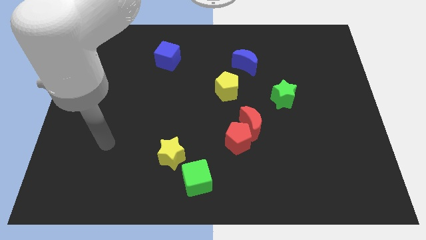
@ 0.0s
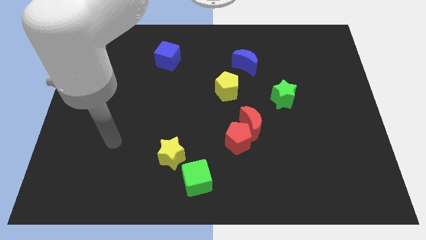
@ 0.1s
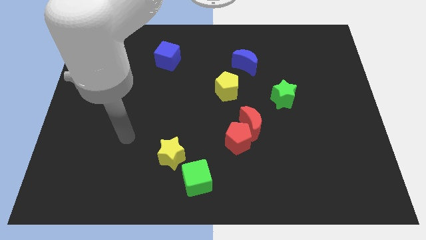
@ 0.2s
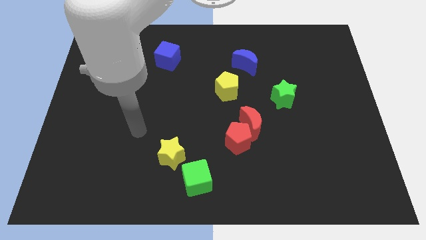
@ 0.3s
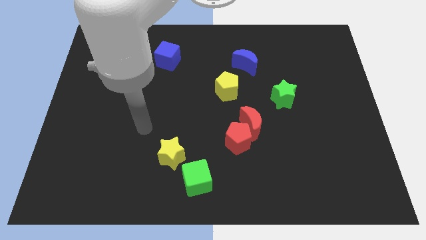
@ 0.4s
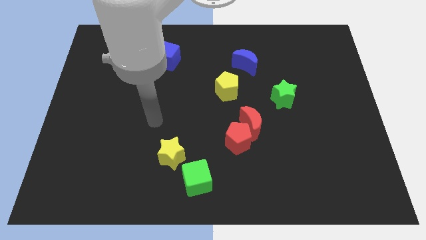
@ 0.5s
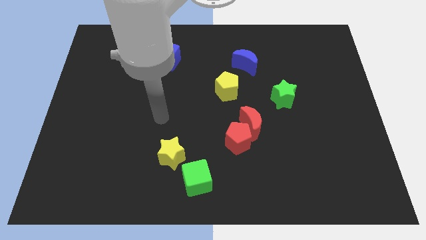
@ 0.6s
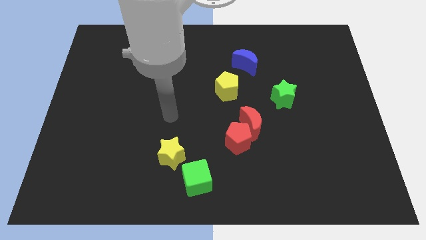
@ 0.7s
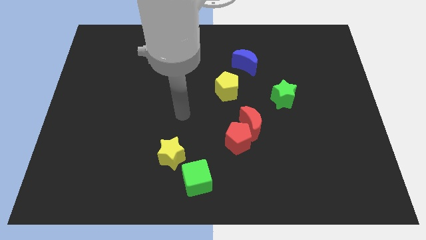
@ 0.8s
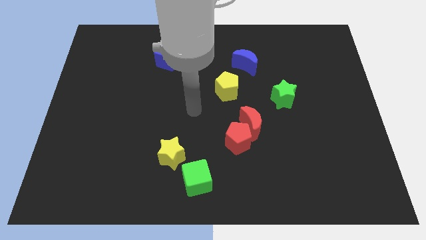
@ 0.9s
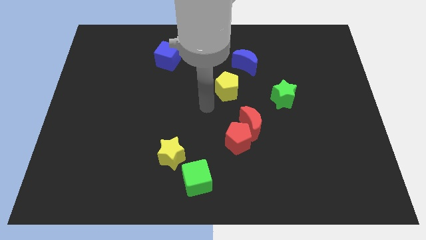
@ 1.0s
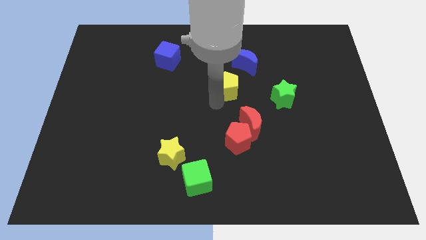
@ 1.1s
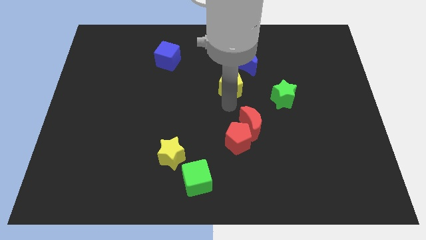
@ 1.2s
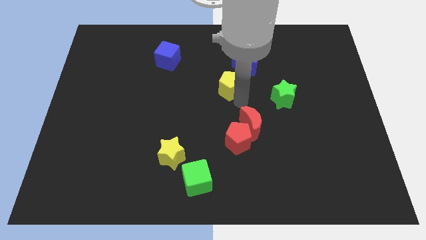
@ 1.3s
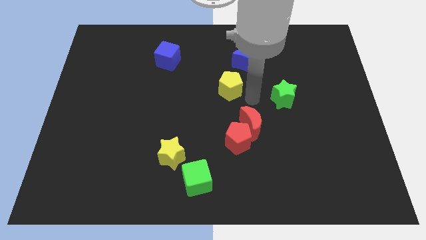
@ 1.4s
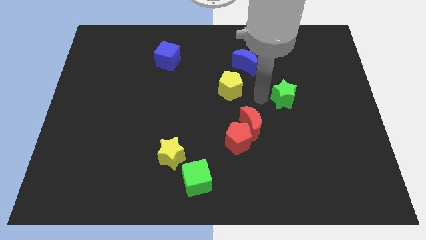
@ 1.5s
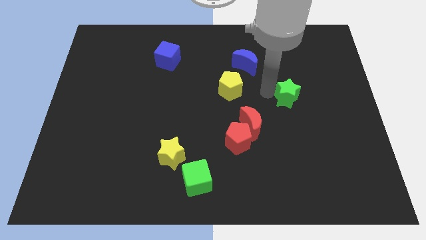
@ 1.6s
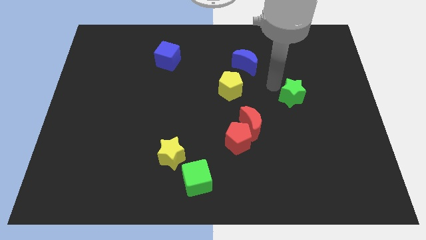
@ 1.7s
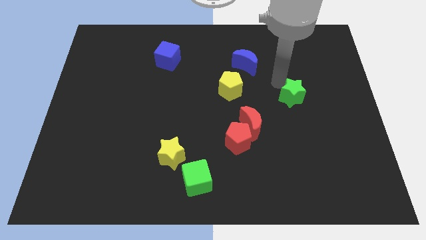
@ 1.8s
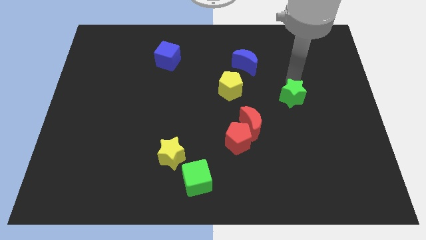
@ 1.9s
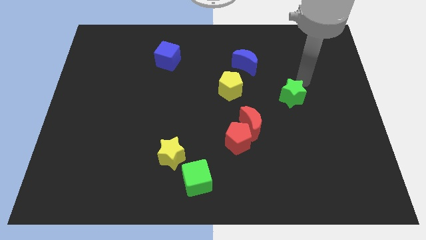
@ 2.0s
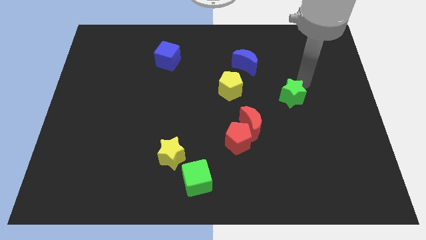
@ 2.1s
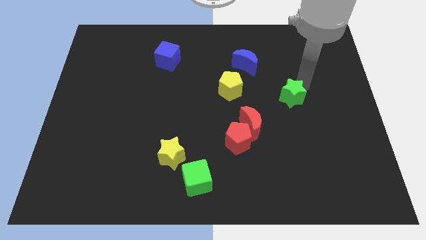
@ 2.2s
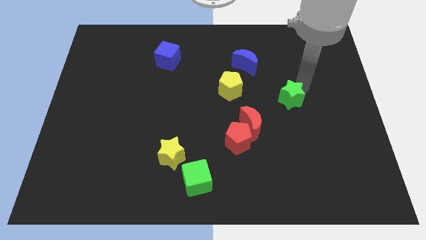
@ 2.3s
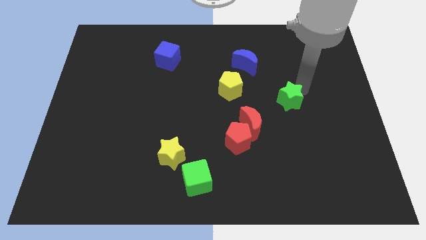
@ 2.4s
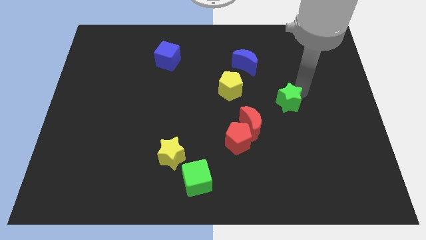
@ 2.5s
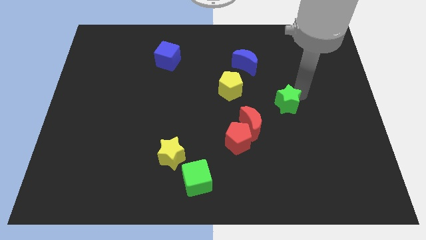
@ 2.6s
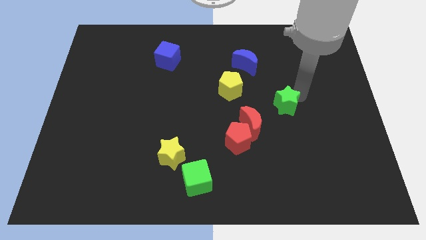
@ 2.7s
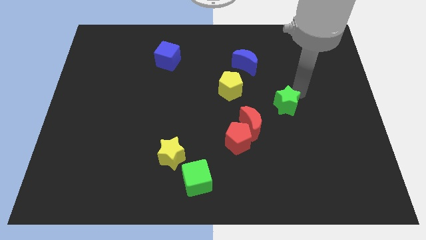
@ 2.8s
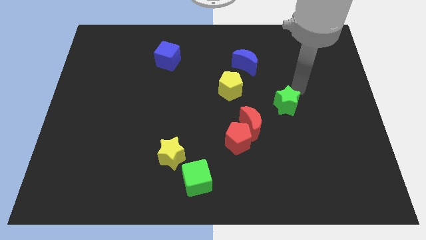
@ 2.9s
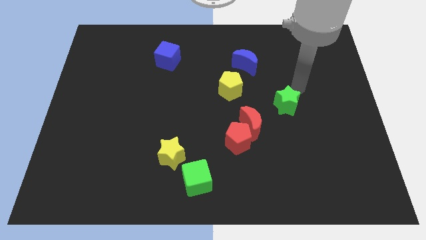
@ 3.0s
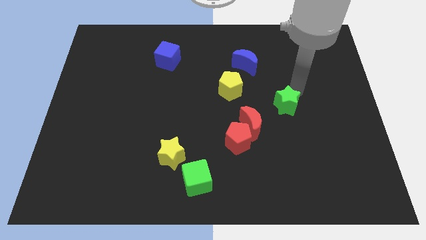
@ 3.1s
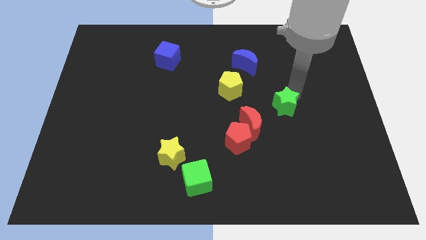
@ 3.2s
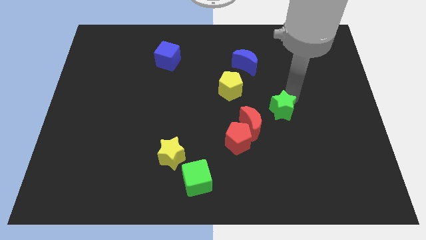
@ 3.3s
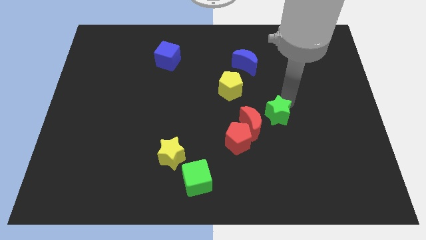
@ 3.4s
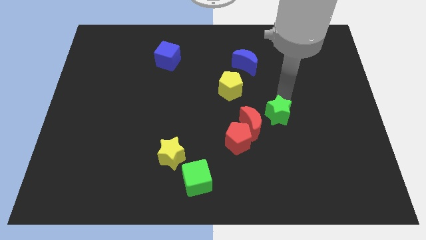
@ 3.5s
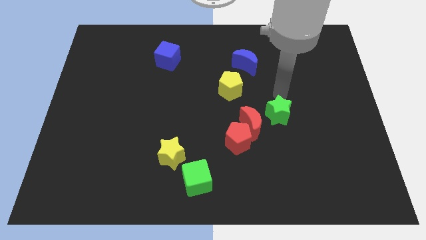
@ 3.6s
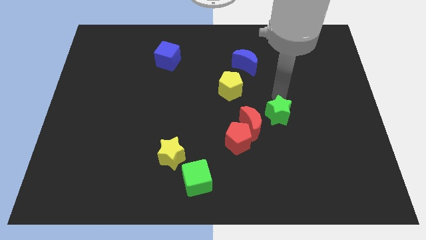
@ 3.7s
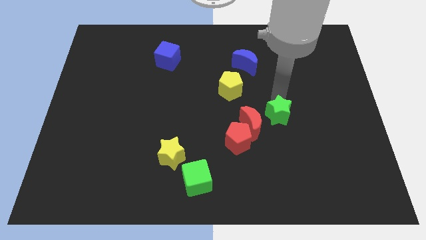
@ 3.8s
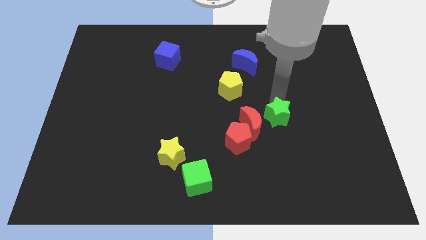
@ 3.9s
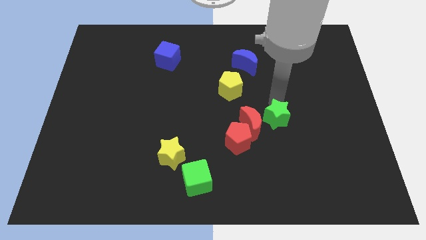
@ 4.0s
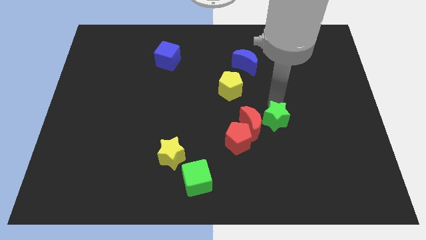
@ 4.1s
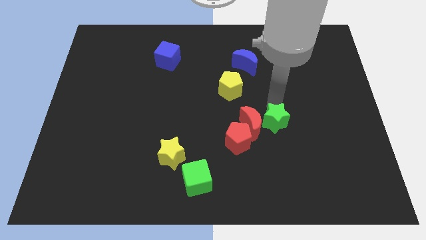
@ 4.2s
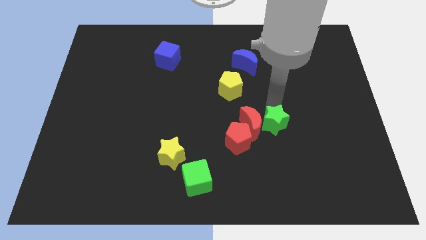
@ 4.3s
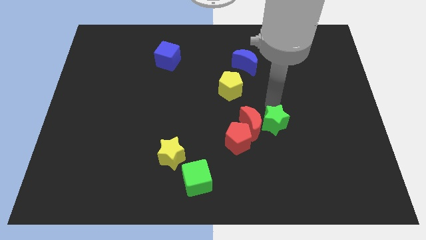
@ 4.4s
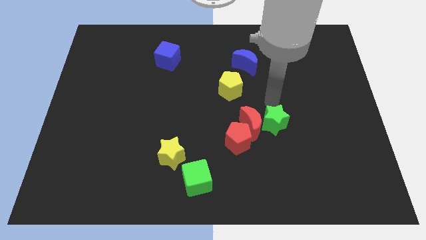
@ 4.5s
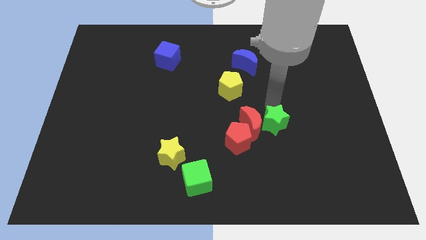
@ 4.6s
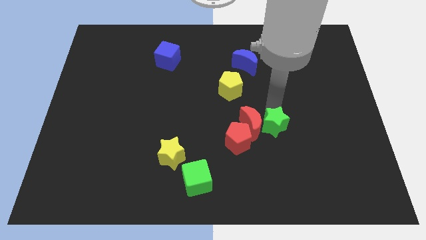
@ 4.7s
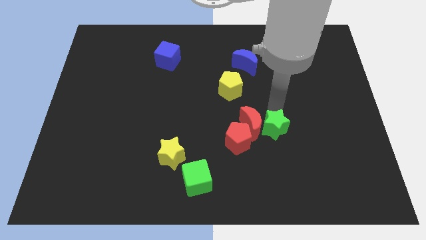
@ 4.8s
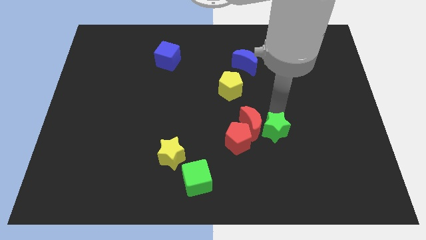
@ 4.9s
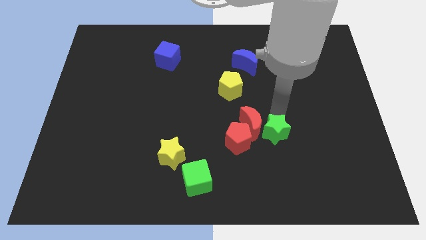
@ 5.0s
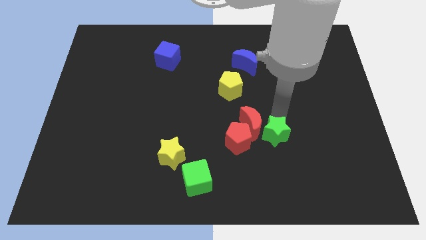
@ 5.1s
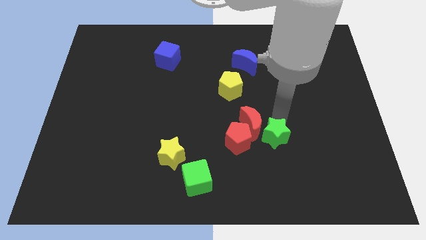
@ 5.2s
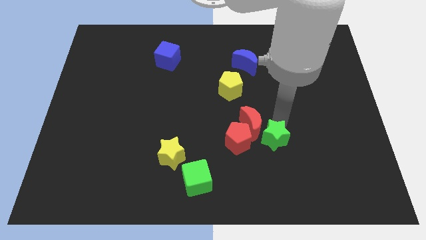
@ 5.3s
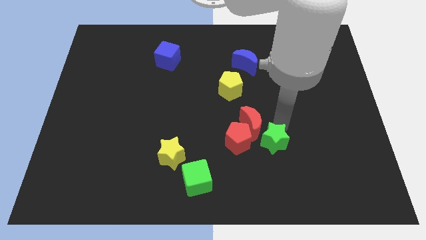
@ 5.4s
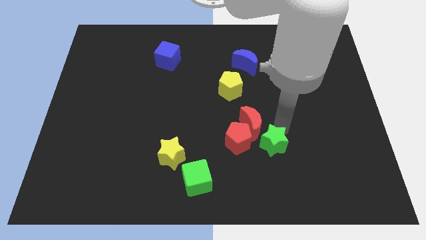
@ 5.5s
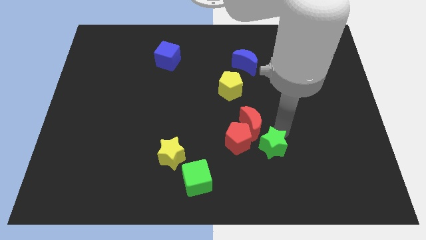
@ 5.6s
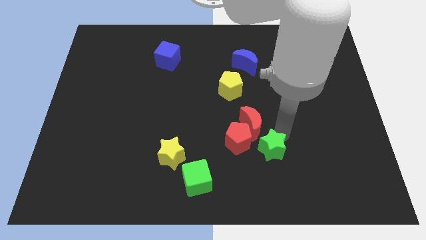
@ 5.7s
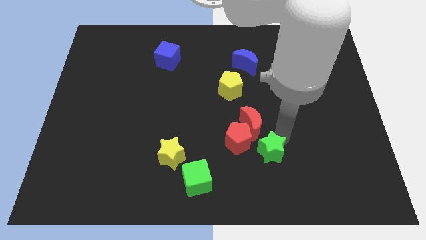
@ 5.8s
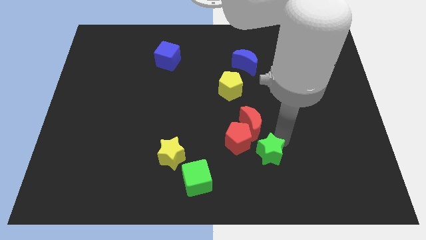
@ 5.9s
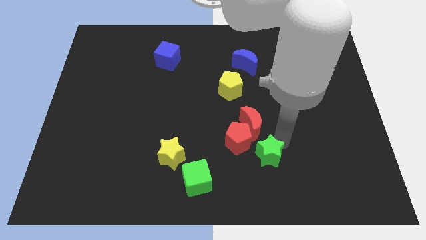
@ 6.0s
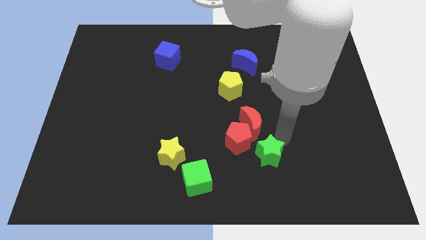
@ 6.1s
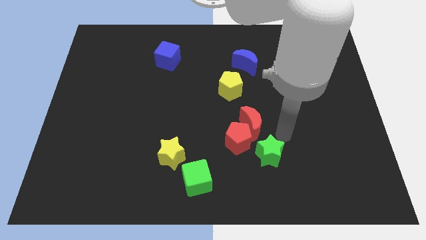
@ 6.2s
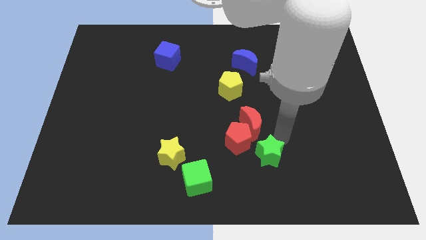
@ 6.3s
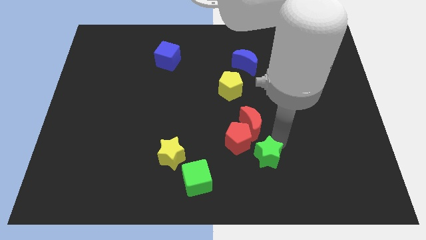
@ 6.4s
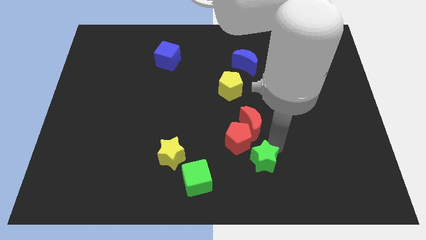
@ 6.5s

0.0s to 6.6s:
slide the green star to the bottom of the red pentagon
